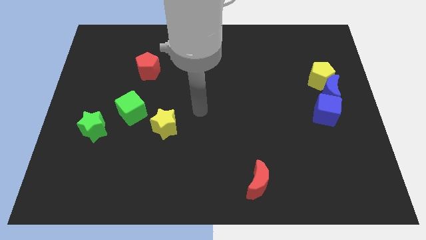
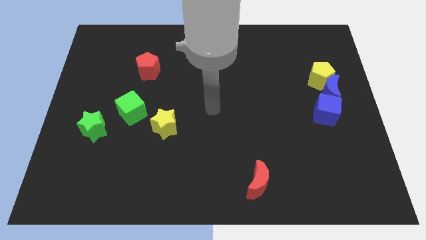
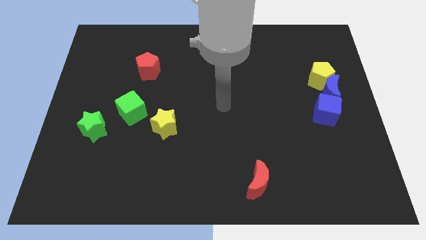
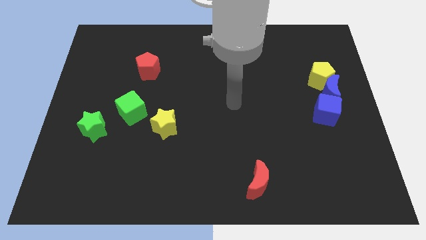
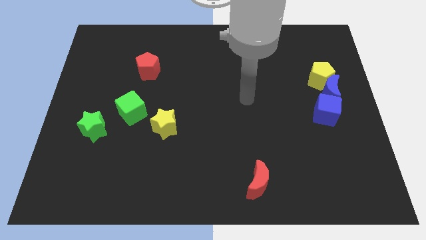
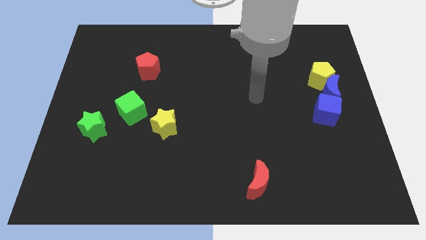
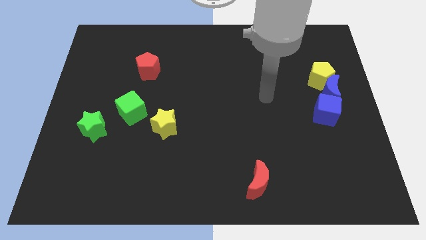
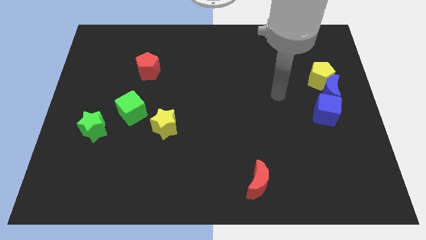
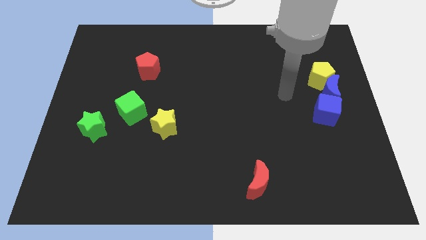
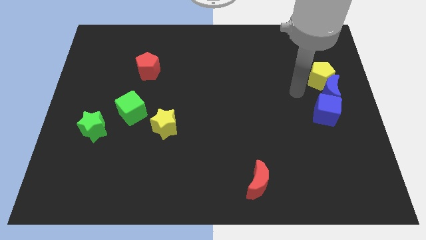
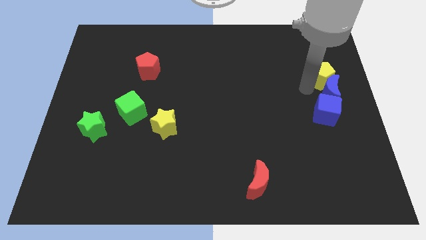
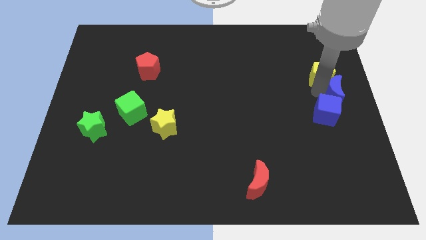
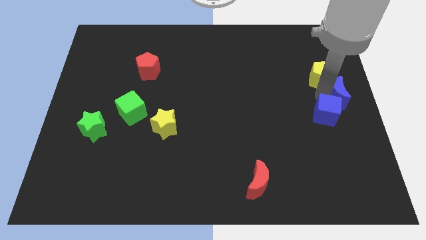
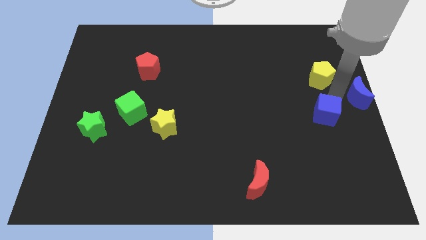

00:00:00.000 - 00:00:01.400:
separate the yellow pentagon from the blue moon

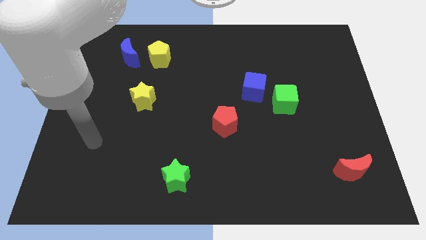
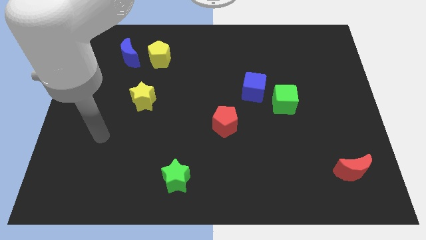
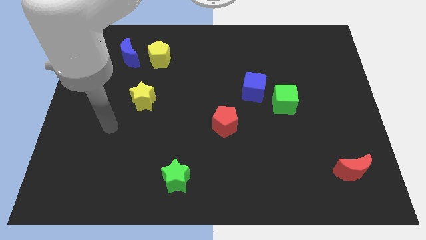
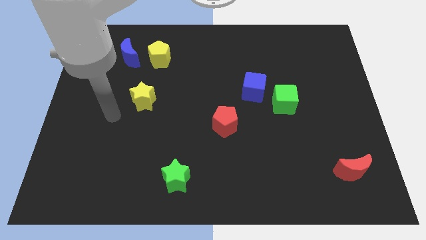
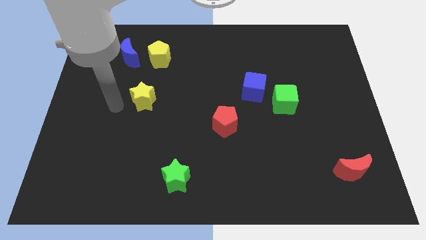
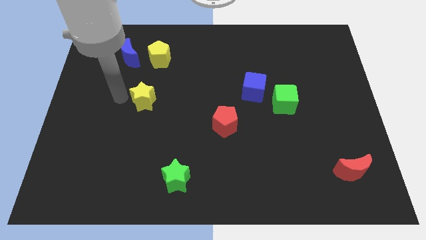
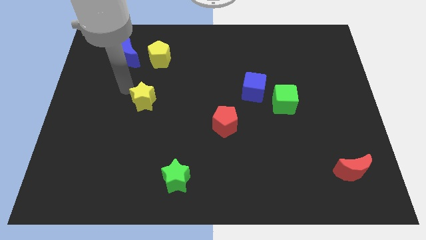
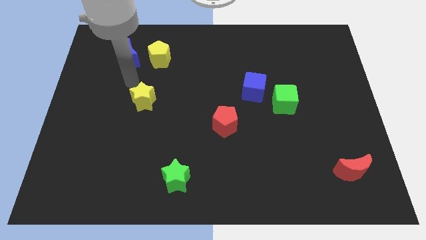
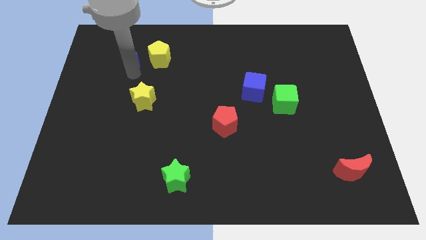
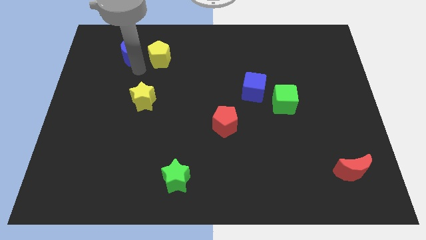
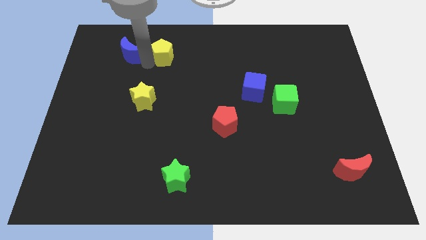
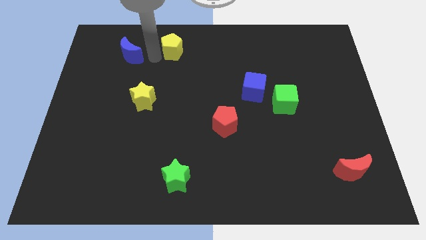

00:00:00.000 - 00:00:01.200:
pull the blue moon apart from the yellow pentagon

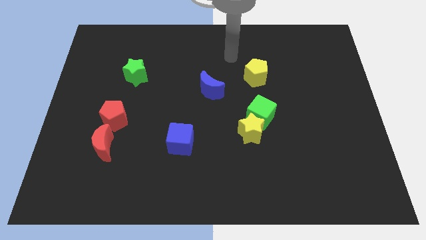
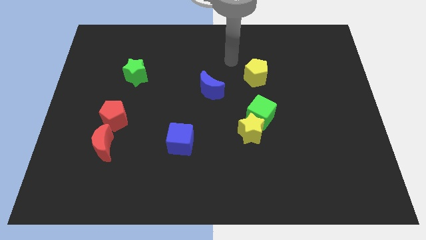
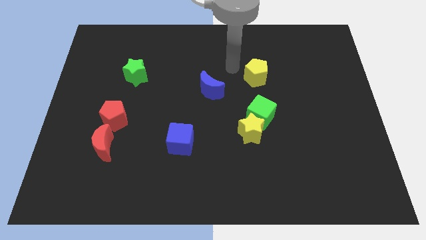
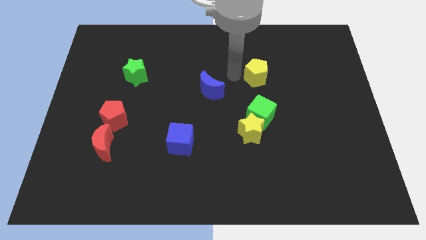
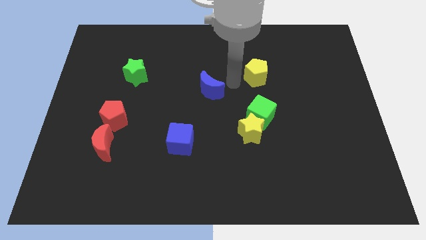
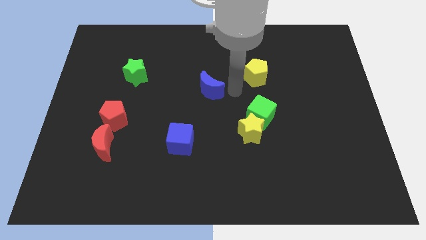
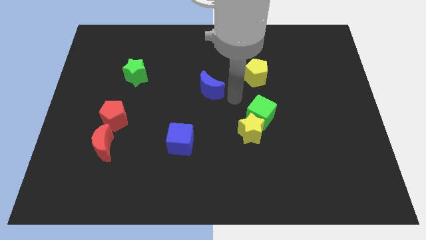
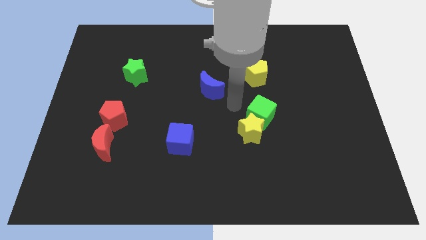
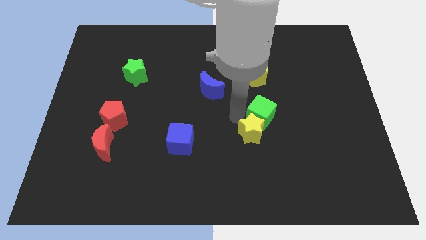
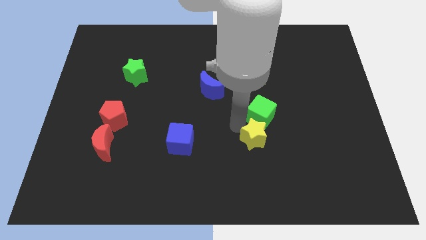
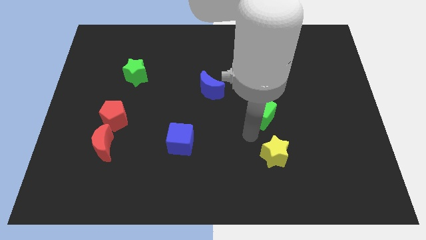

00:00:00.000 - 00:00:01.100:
move the green cube away from the yellow star

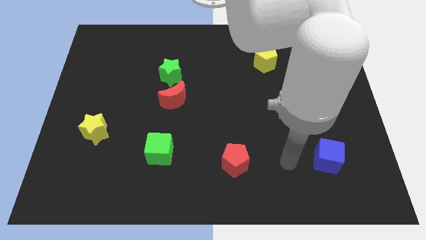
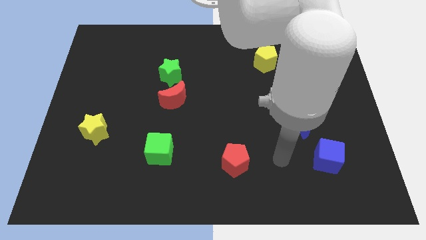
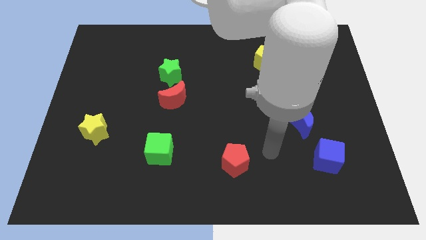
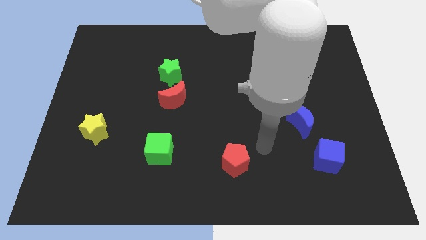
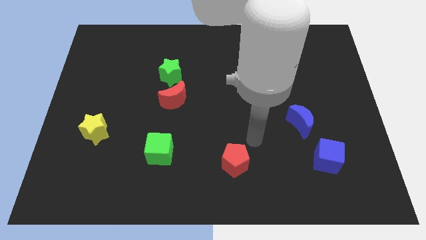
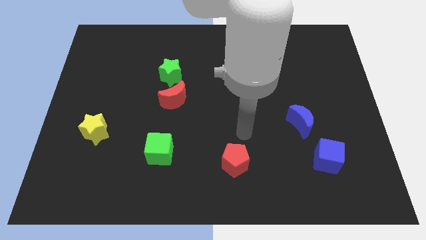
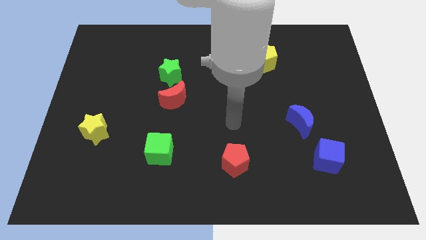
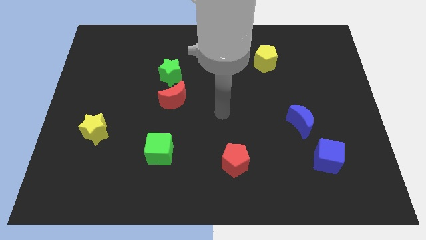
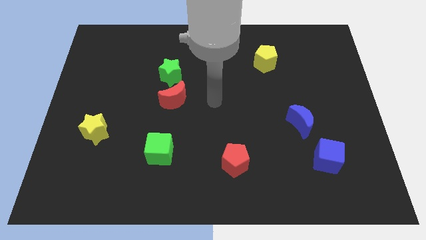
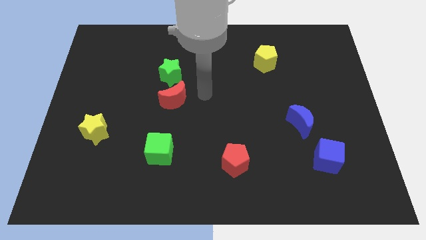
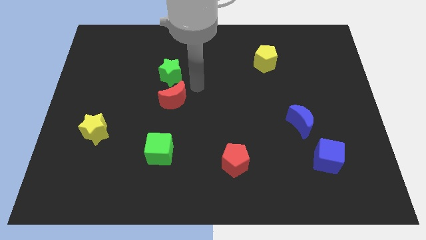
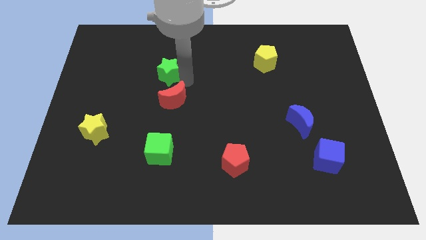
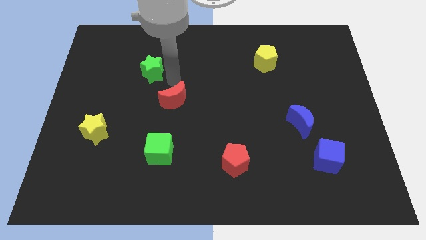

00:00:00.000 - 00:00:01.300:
separate the red moon from the green star

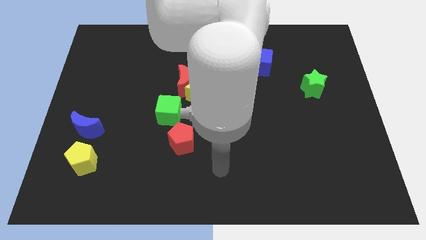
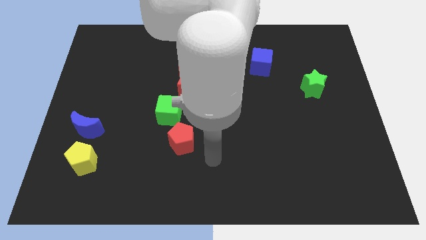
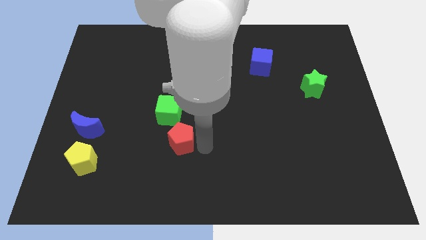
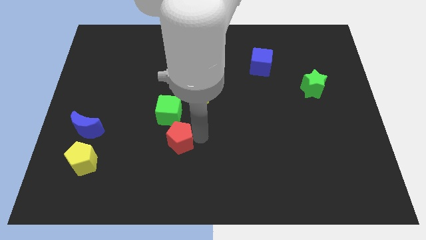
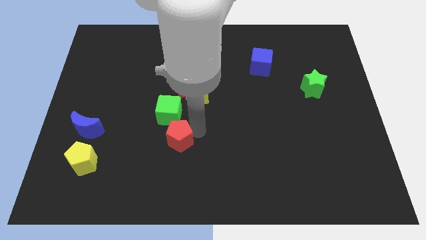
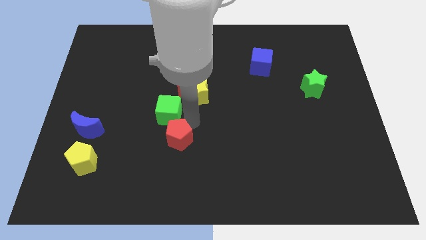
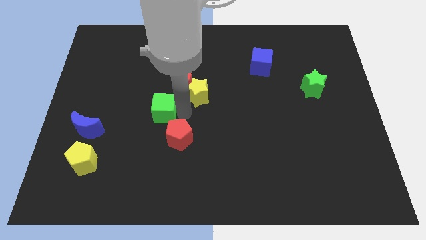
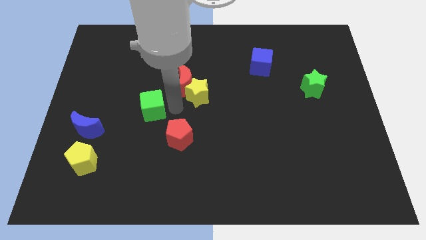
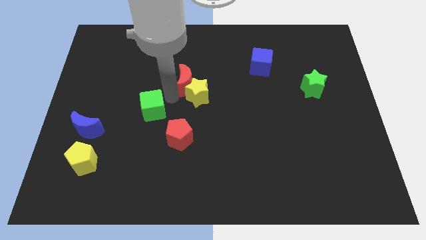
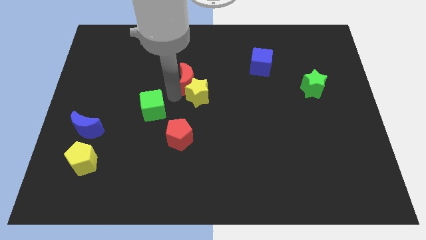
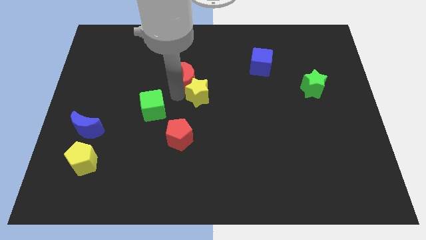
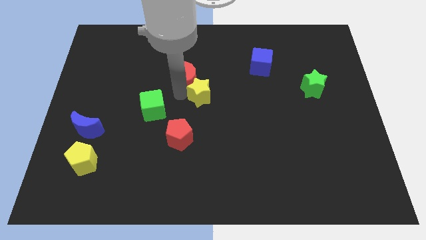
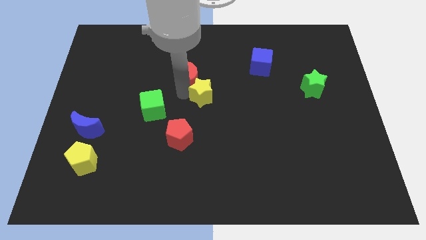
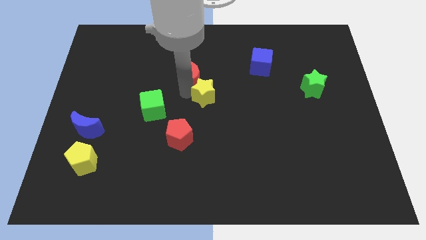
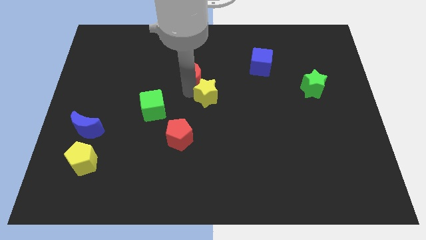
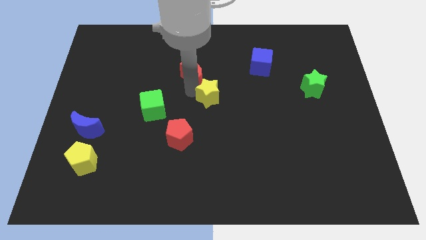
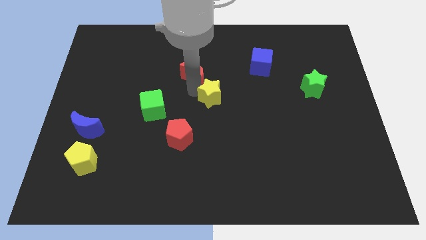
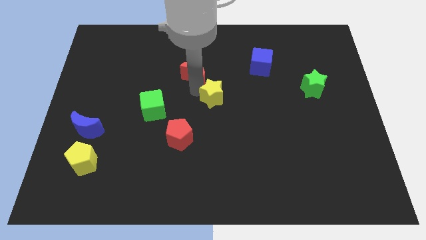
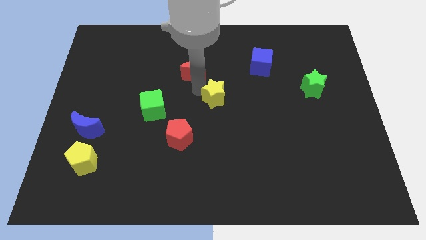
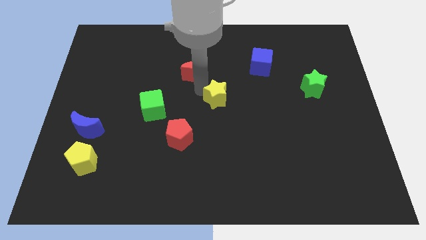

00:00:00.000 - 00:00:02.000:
separate the yellow star from the red moon and green cube

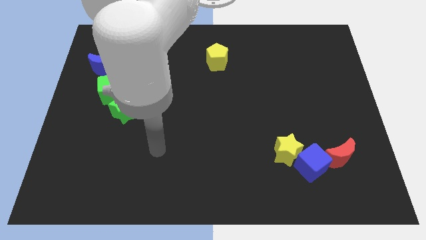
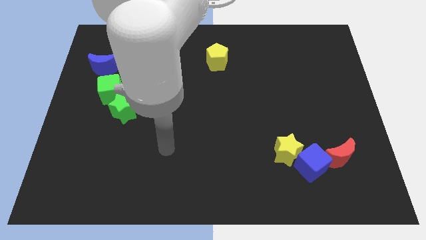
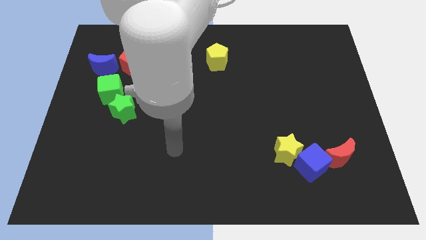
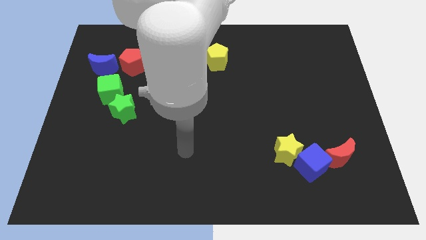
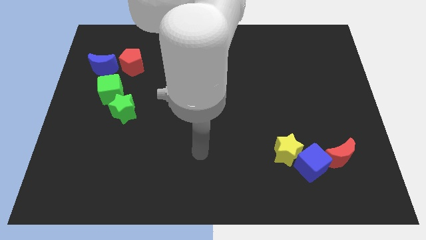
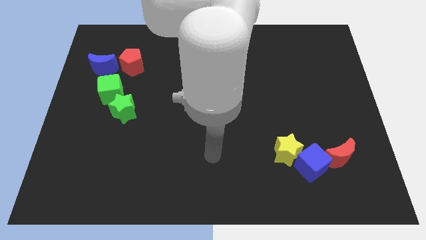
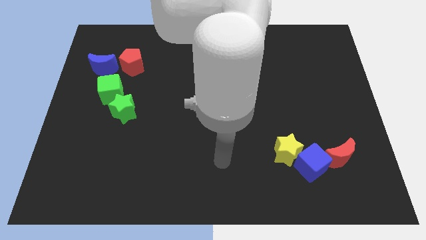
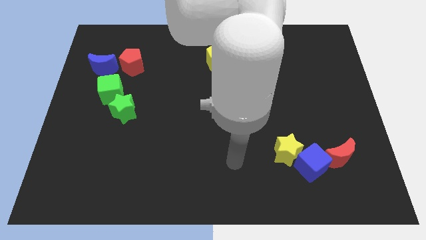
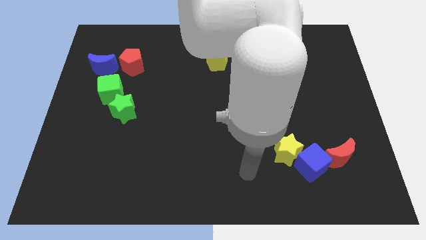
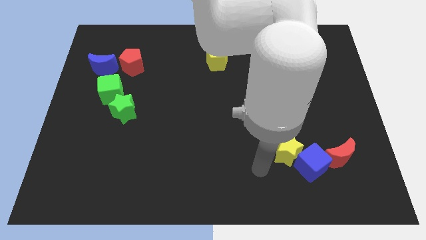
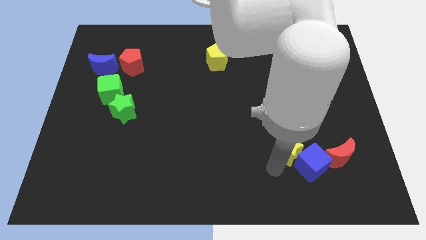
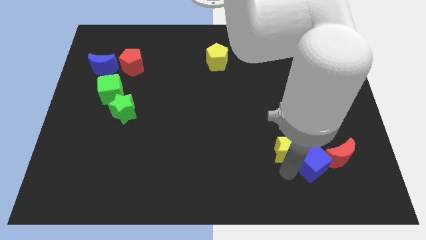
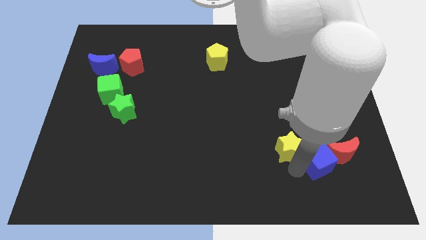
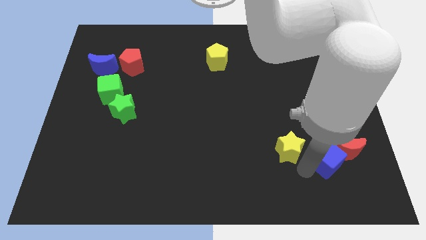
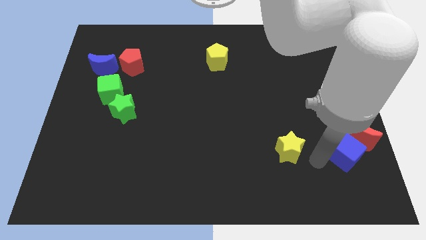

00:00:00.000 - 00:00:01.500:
pull the yellow star apart from the blue cube

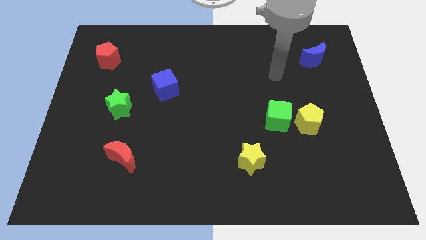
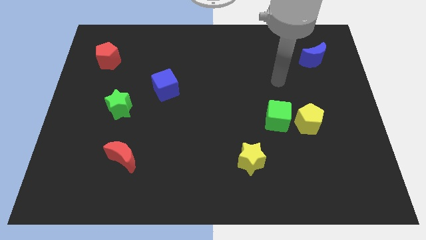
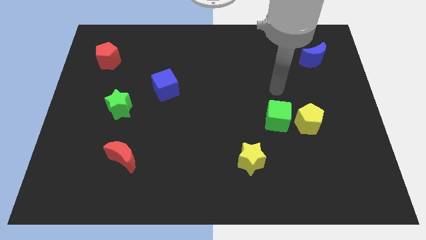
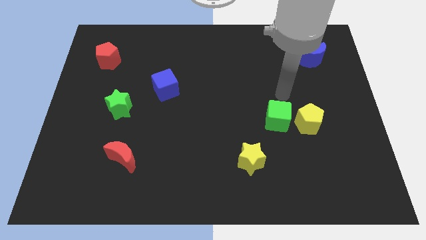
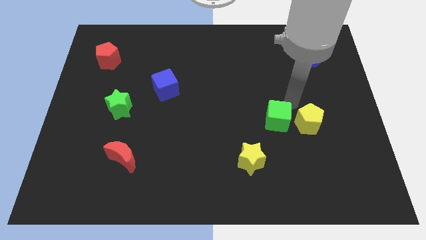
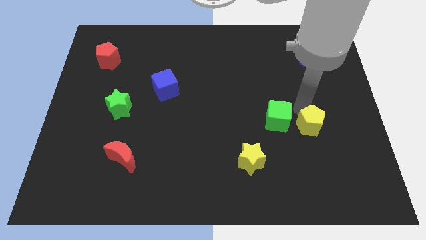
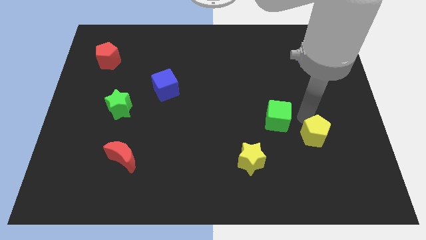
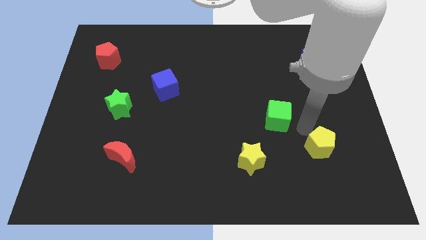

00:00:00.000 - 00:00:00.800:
move the green cube away from the yellow pentagon
